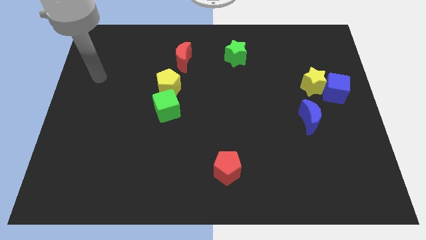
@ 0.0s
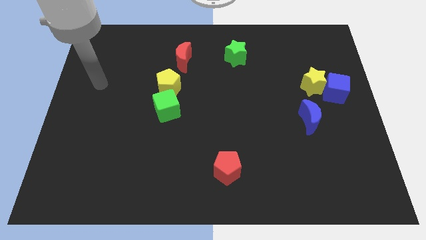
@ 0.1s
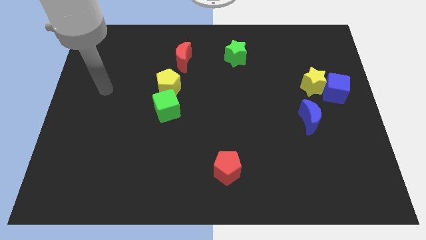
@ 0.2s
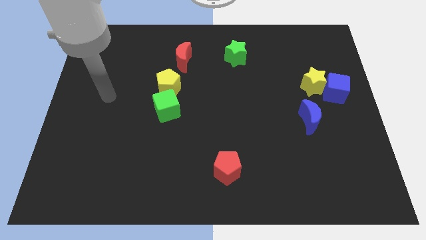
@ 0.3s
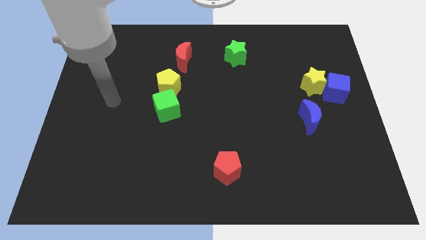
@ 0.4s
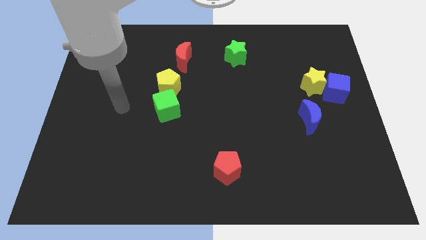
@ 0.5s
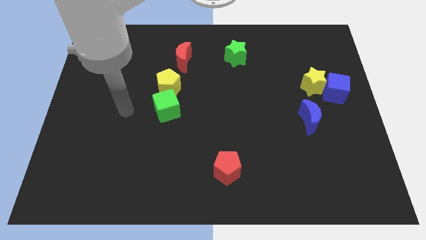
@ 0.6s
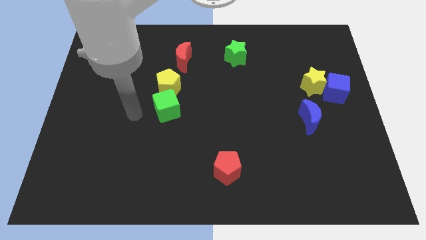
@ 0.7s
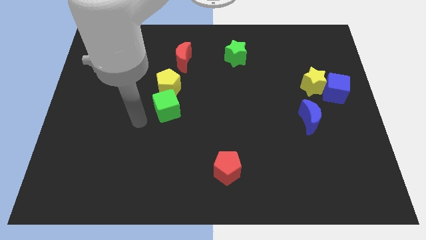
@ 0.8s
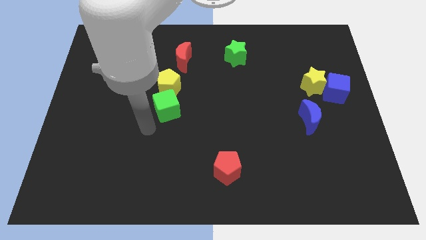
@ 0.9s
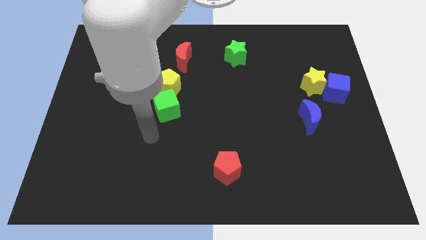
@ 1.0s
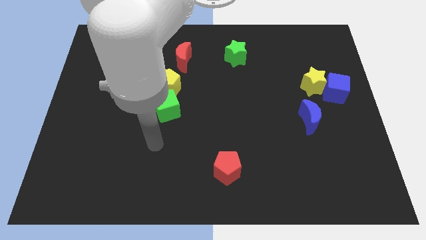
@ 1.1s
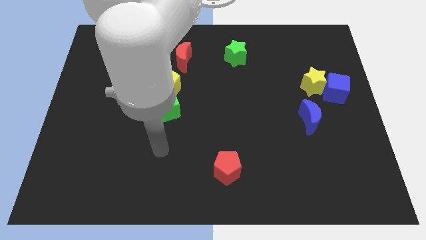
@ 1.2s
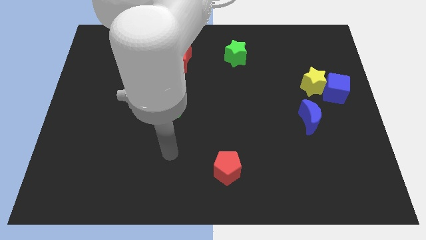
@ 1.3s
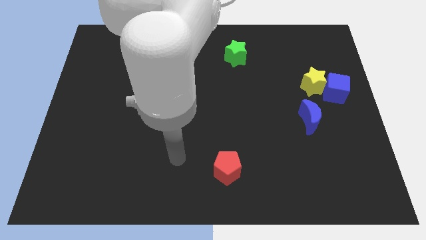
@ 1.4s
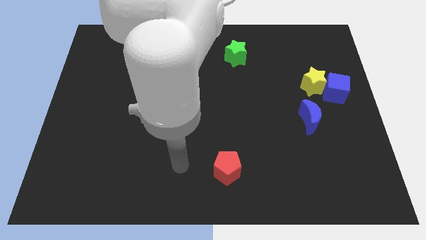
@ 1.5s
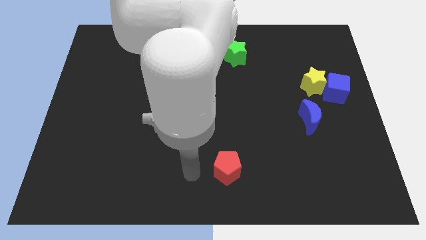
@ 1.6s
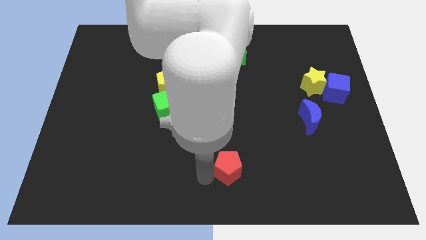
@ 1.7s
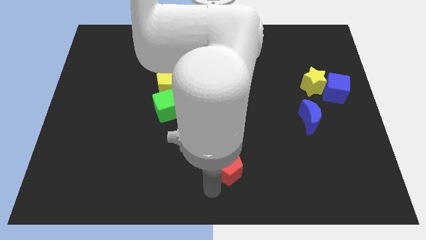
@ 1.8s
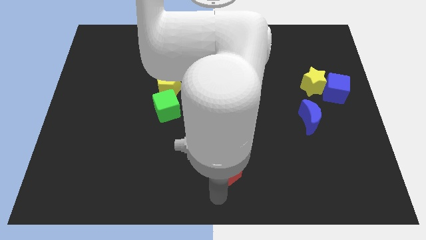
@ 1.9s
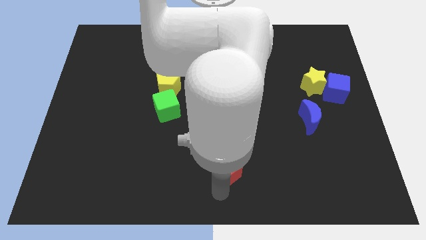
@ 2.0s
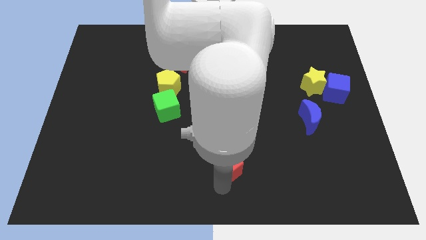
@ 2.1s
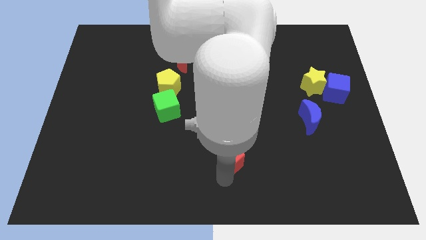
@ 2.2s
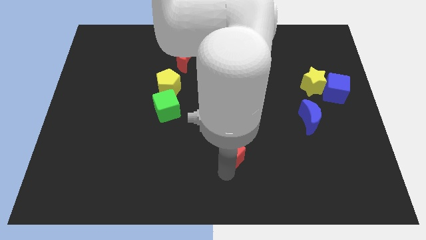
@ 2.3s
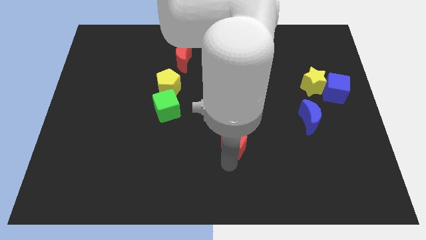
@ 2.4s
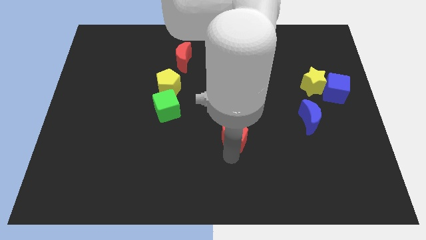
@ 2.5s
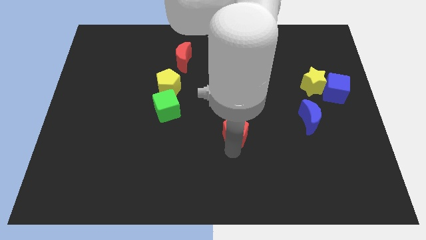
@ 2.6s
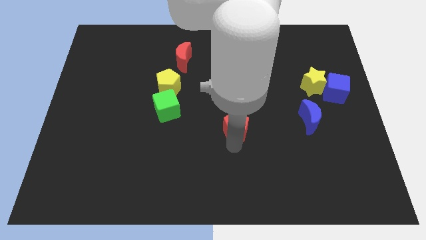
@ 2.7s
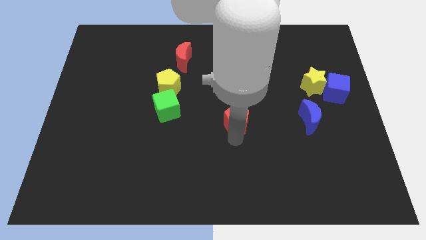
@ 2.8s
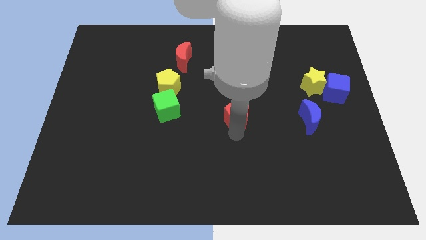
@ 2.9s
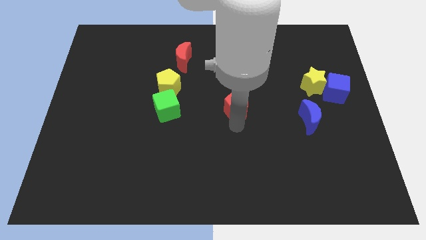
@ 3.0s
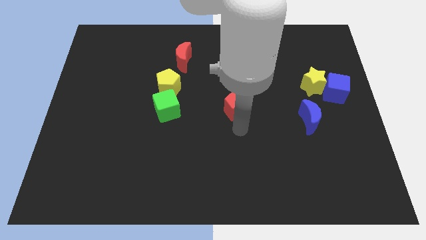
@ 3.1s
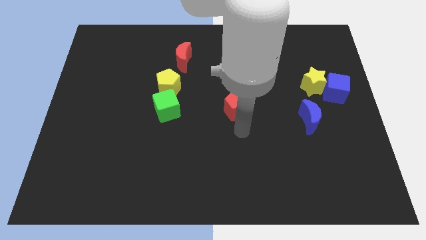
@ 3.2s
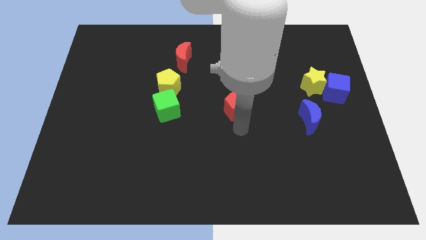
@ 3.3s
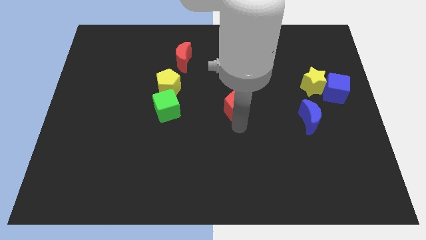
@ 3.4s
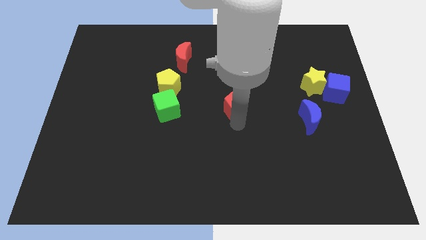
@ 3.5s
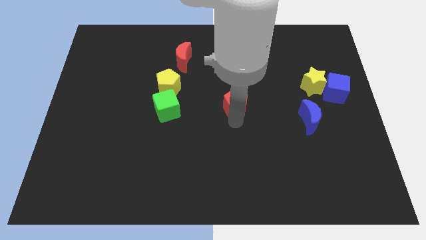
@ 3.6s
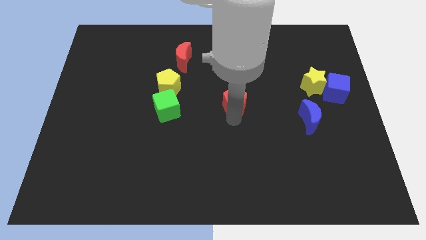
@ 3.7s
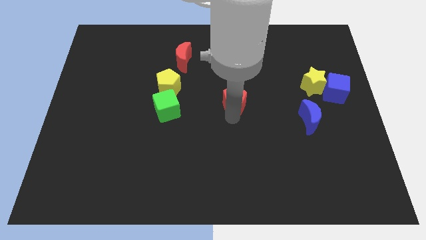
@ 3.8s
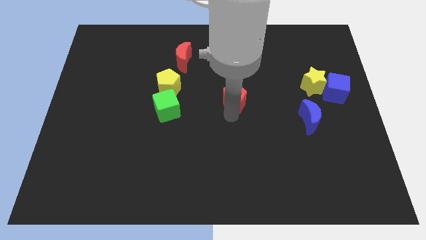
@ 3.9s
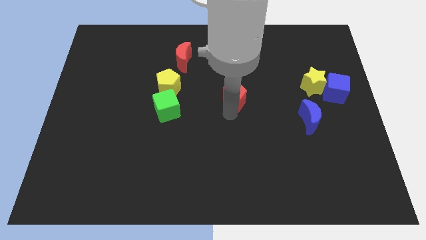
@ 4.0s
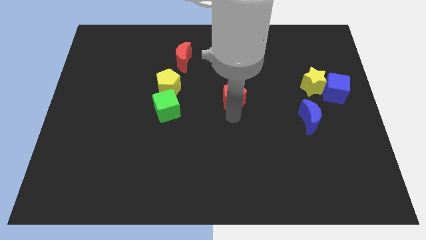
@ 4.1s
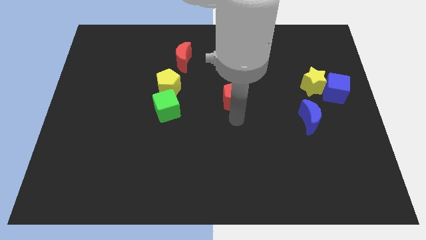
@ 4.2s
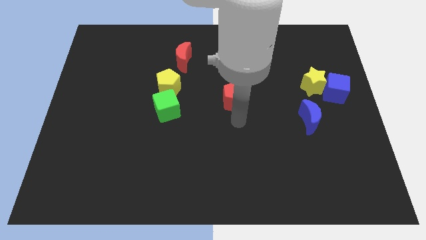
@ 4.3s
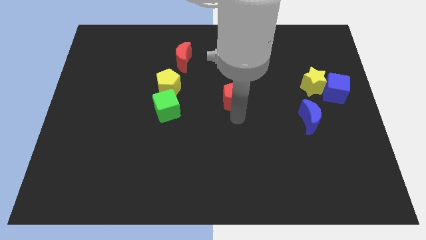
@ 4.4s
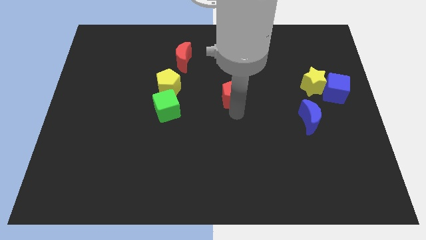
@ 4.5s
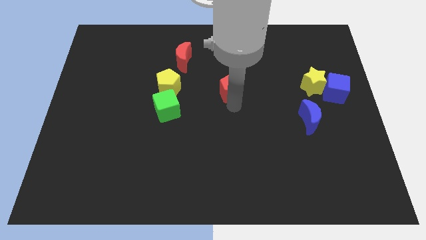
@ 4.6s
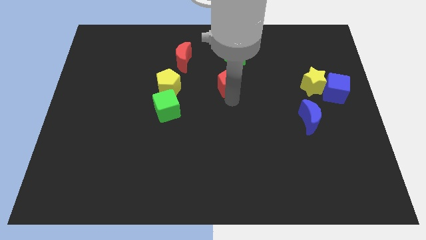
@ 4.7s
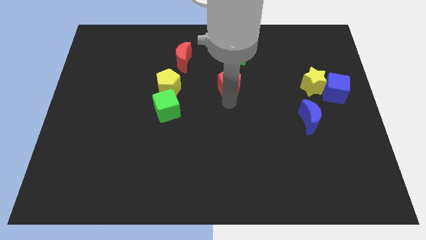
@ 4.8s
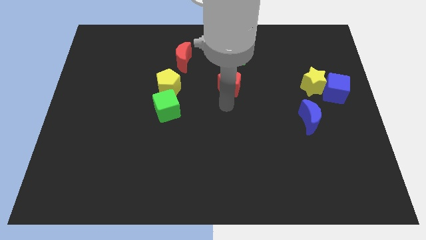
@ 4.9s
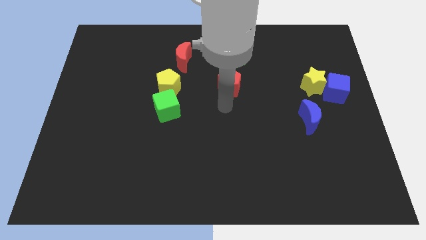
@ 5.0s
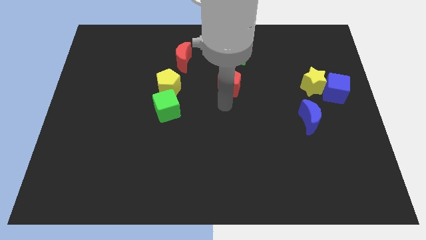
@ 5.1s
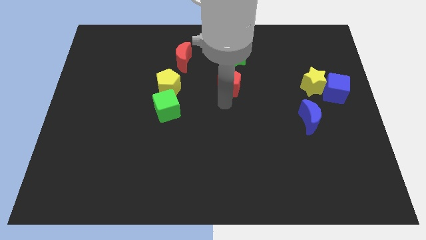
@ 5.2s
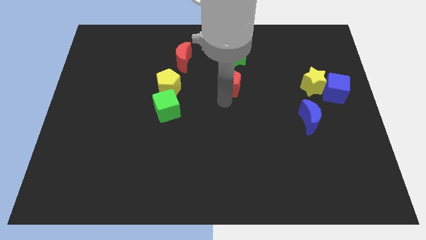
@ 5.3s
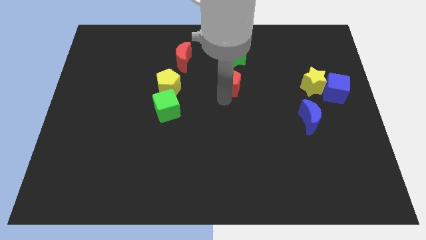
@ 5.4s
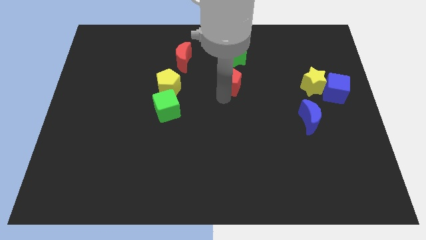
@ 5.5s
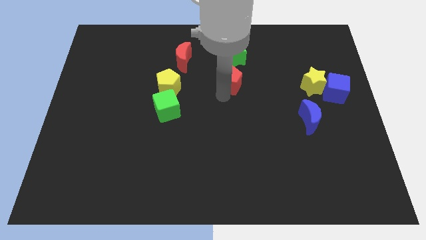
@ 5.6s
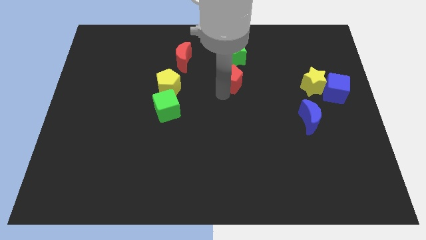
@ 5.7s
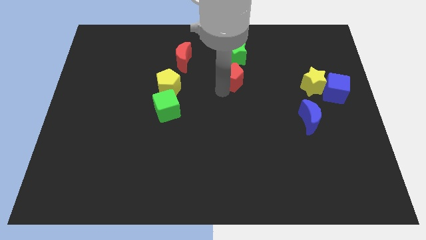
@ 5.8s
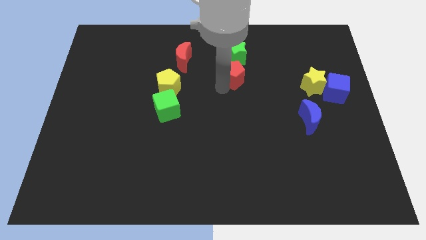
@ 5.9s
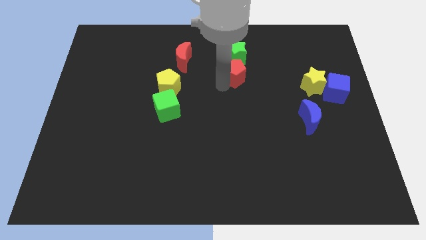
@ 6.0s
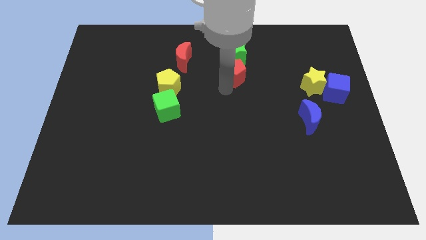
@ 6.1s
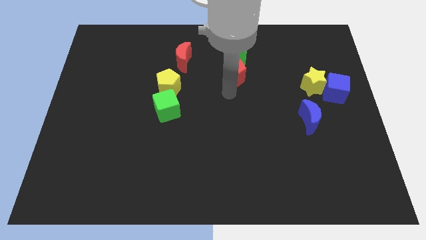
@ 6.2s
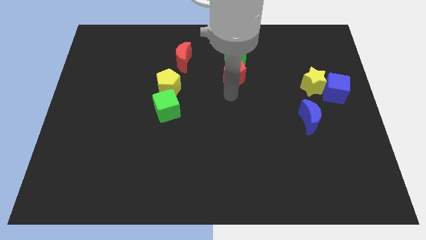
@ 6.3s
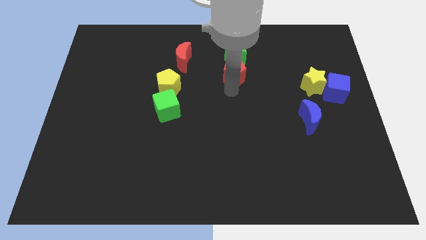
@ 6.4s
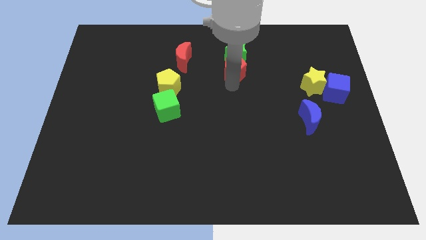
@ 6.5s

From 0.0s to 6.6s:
slide the red pentagon next to the green star
